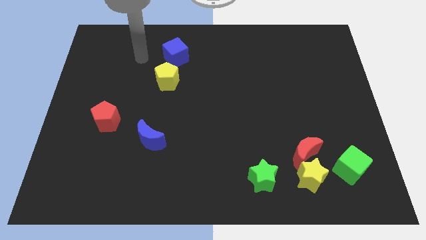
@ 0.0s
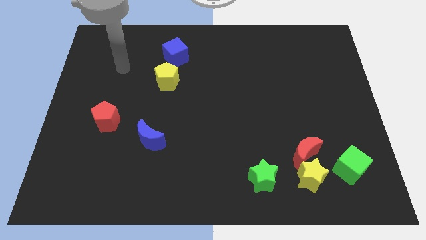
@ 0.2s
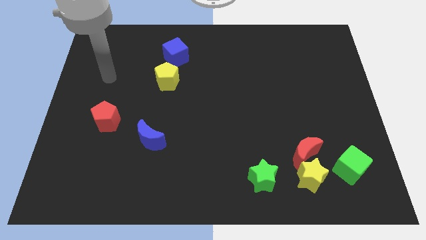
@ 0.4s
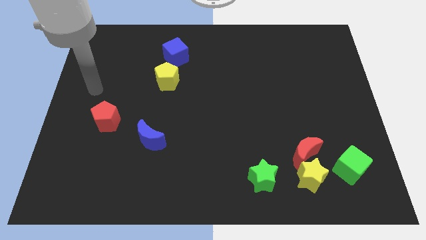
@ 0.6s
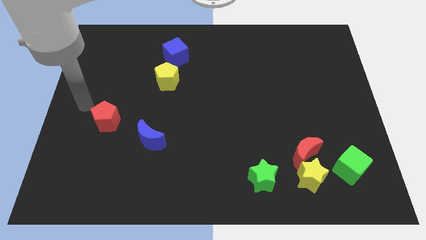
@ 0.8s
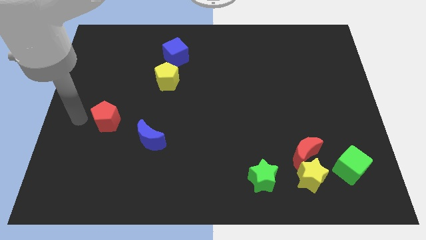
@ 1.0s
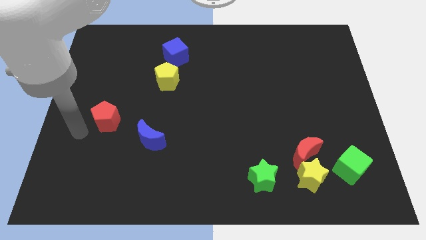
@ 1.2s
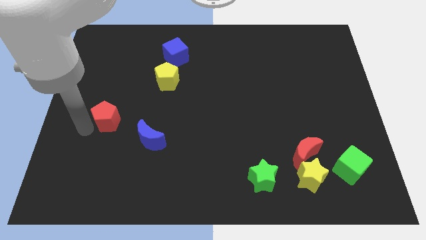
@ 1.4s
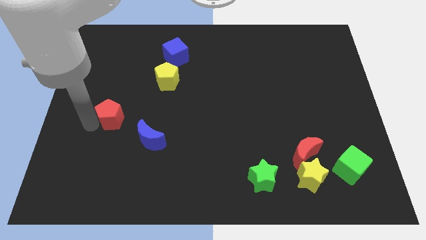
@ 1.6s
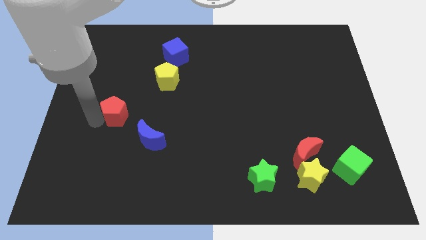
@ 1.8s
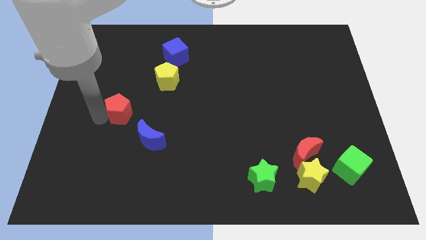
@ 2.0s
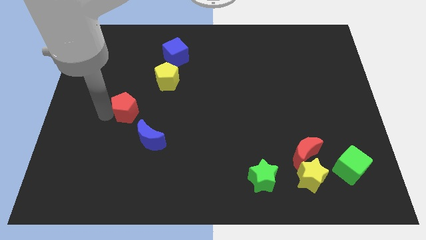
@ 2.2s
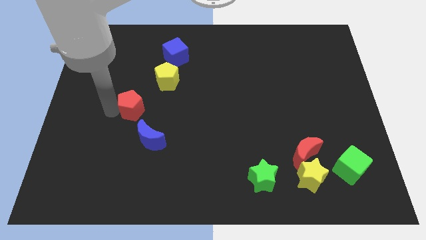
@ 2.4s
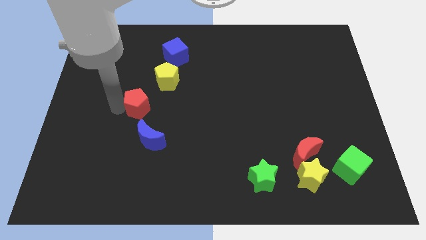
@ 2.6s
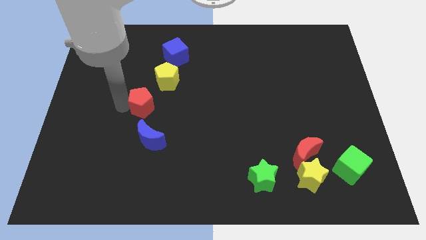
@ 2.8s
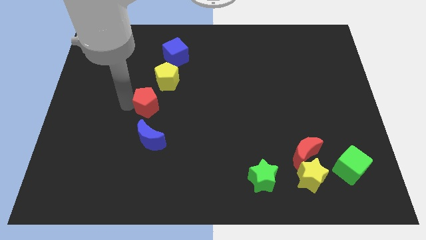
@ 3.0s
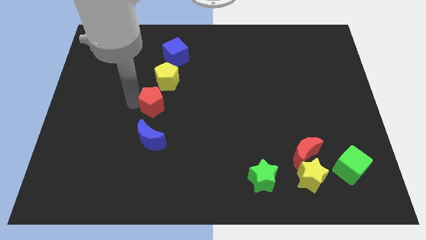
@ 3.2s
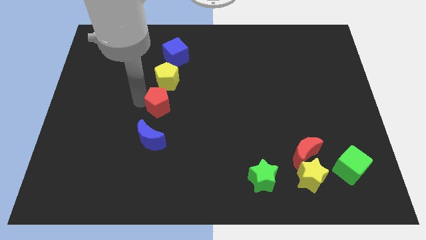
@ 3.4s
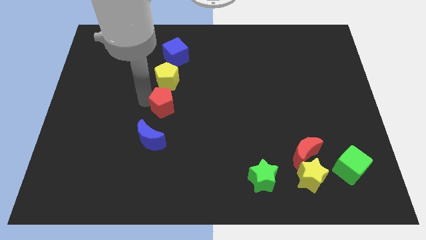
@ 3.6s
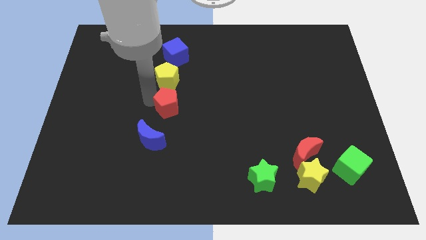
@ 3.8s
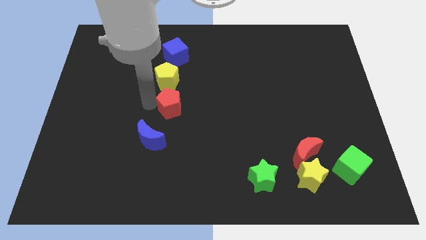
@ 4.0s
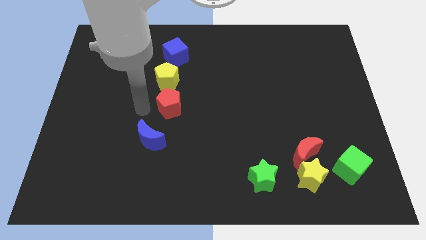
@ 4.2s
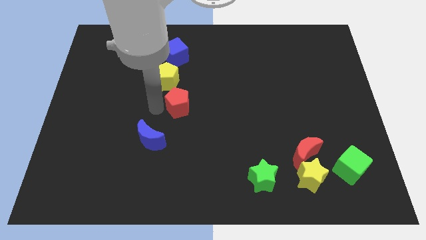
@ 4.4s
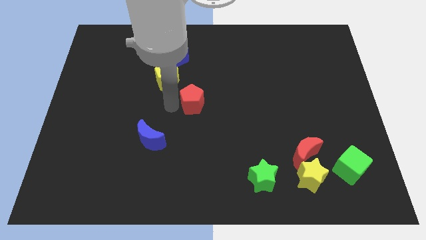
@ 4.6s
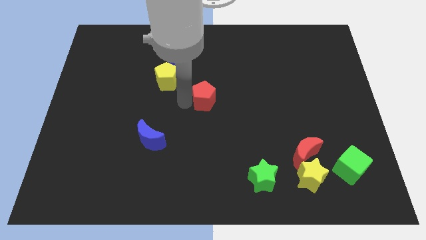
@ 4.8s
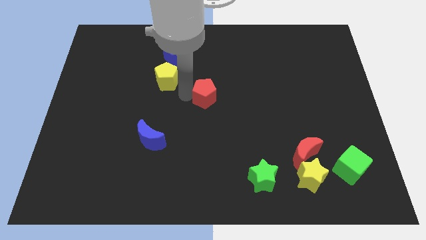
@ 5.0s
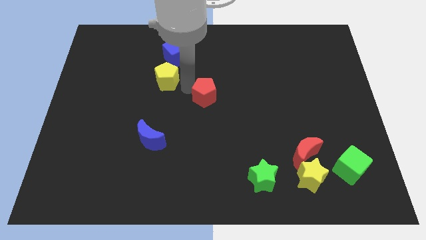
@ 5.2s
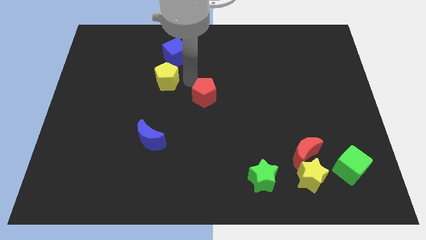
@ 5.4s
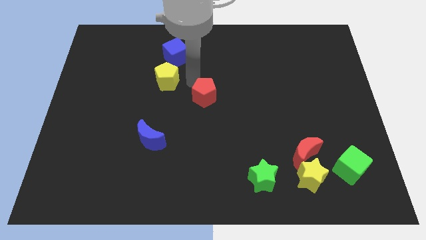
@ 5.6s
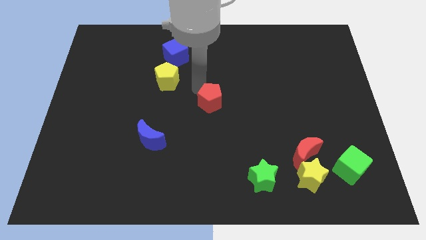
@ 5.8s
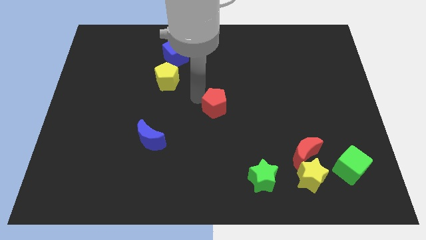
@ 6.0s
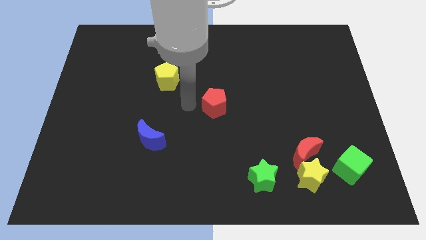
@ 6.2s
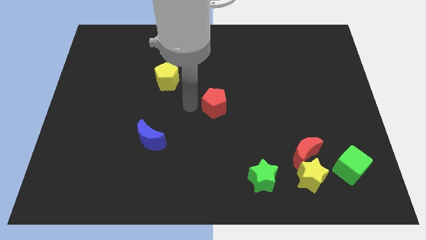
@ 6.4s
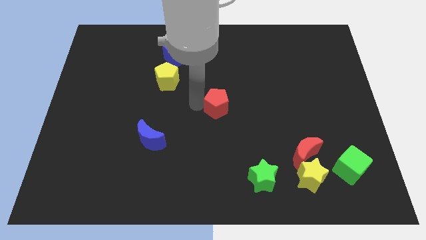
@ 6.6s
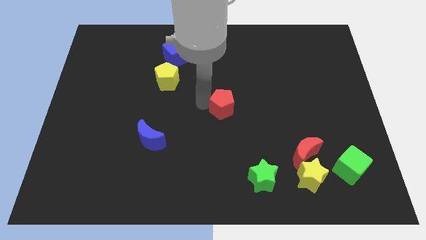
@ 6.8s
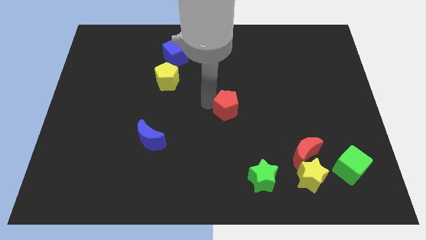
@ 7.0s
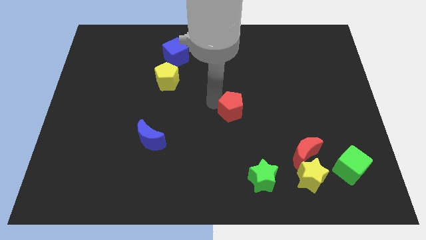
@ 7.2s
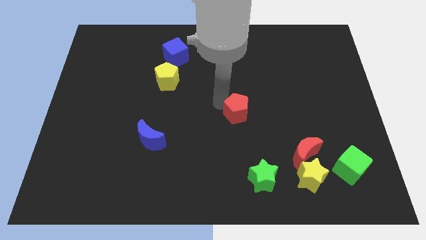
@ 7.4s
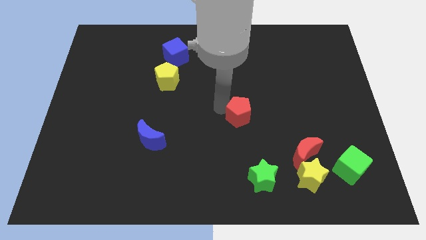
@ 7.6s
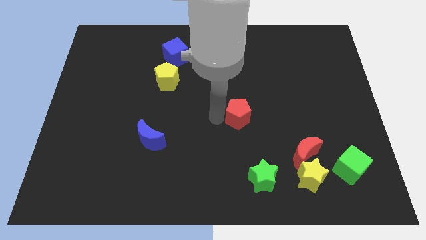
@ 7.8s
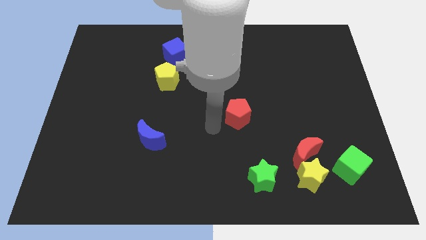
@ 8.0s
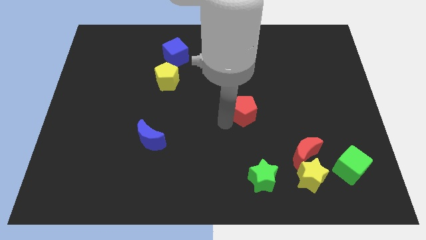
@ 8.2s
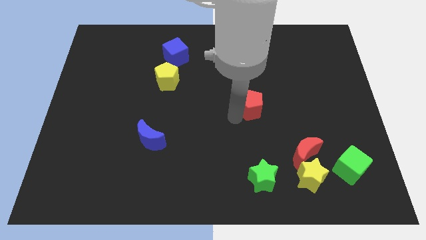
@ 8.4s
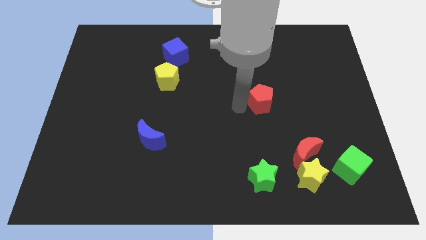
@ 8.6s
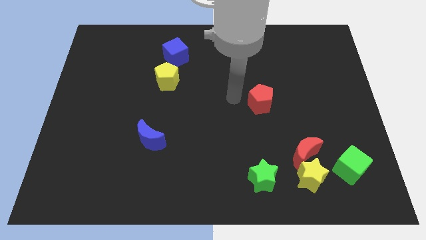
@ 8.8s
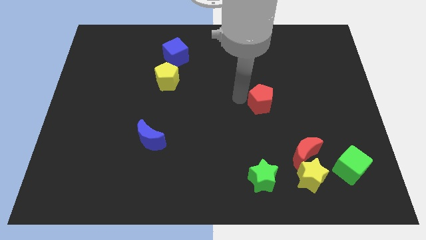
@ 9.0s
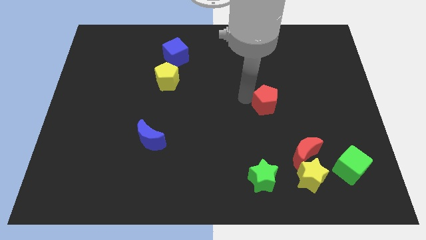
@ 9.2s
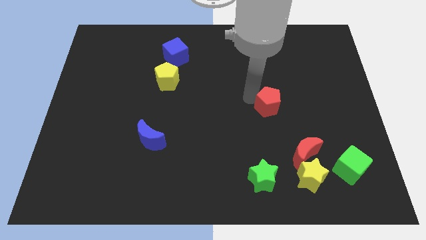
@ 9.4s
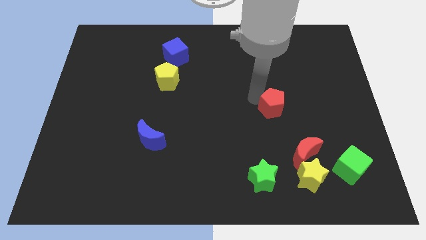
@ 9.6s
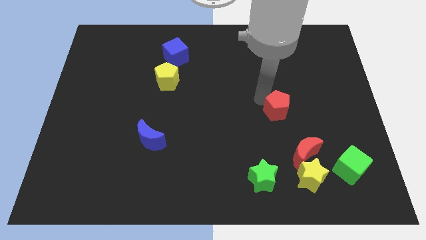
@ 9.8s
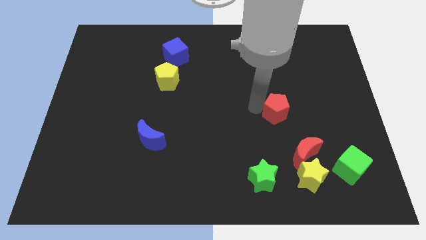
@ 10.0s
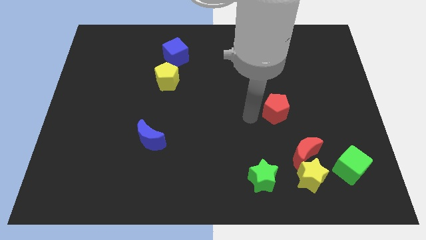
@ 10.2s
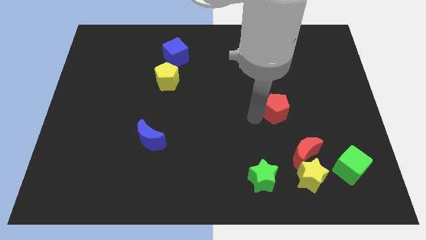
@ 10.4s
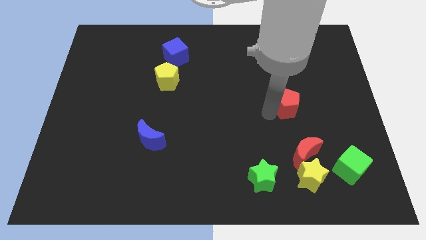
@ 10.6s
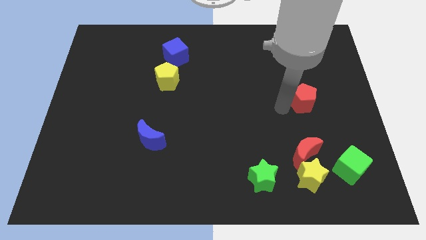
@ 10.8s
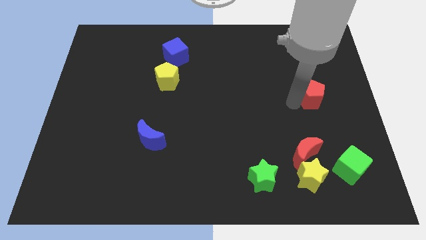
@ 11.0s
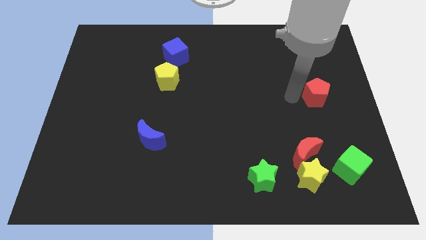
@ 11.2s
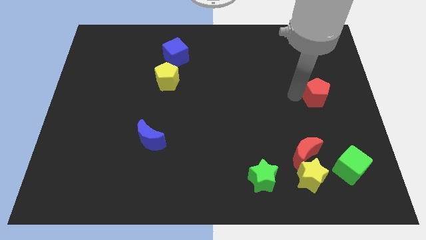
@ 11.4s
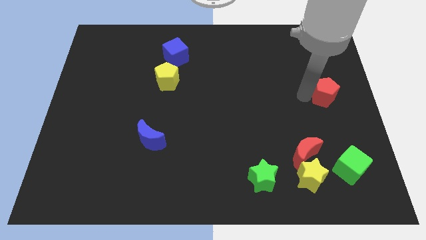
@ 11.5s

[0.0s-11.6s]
put the red pentagon to the right side of the board

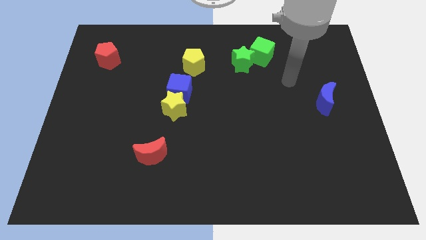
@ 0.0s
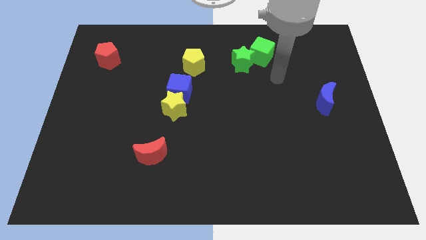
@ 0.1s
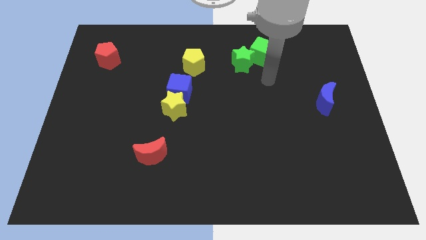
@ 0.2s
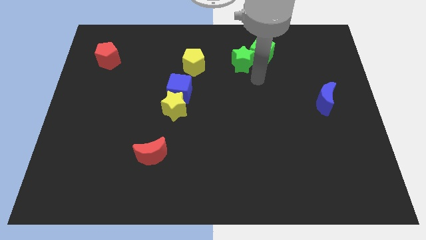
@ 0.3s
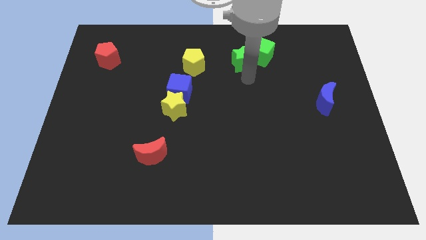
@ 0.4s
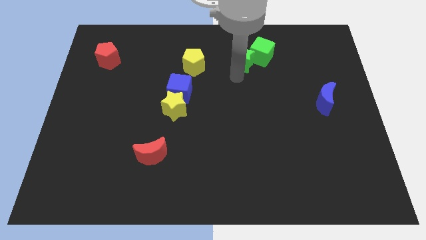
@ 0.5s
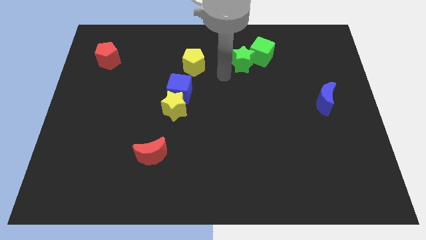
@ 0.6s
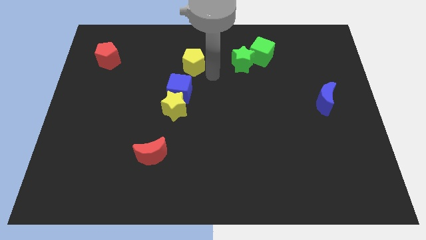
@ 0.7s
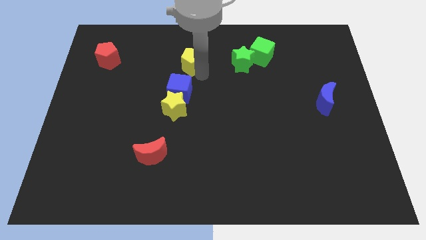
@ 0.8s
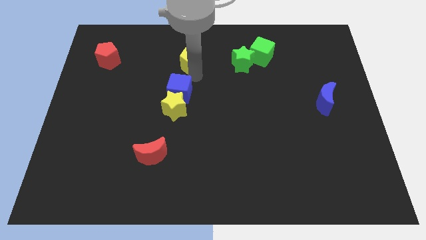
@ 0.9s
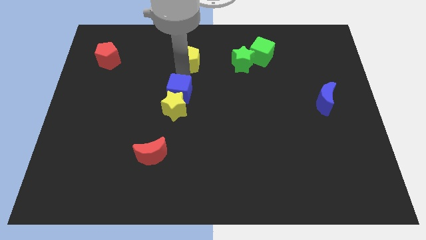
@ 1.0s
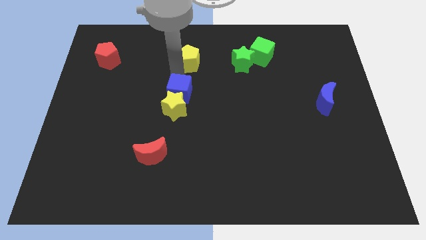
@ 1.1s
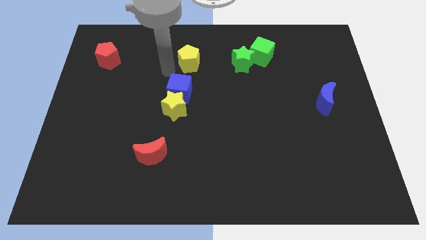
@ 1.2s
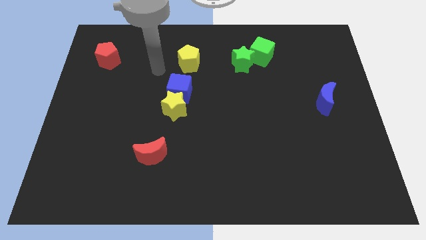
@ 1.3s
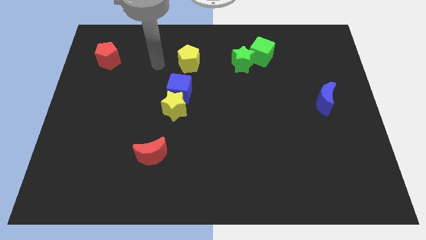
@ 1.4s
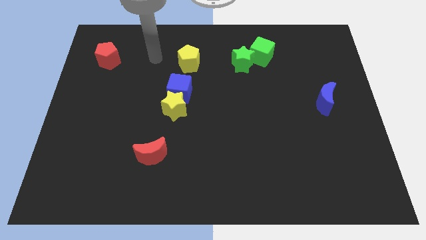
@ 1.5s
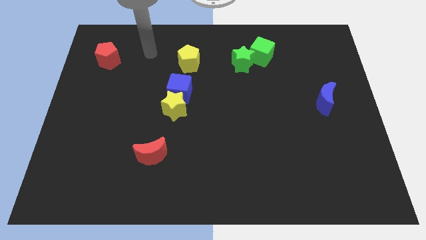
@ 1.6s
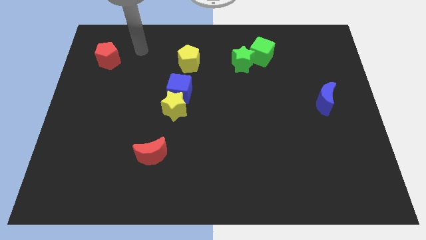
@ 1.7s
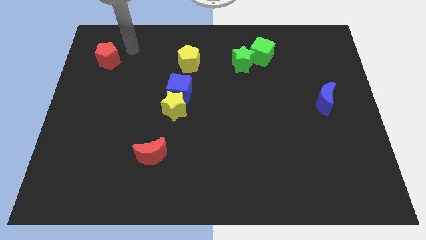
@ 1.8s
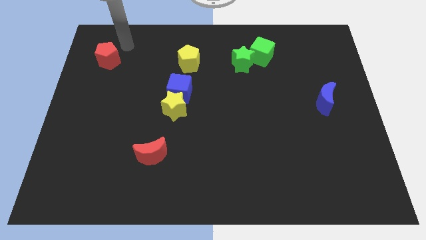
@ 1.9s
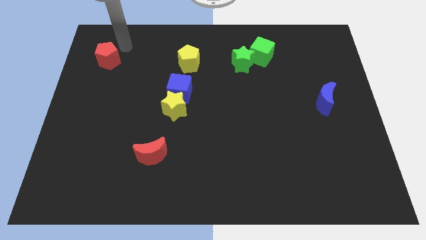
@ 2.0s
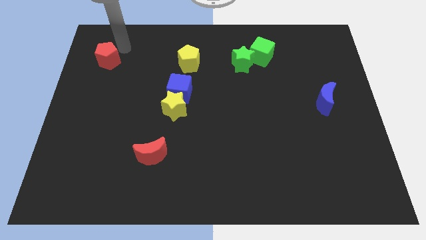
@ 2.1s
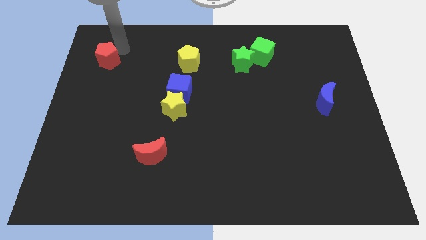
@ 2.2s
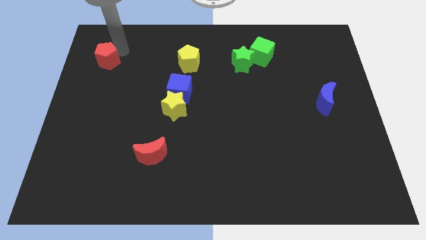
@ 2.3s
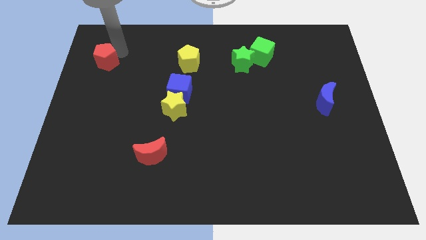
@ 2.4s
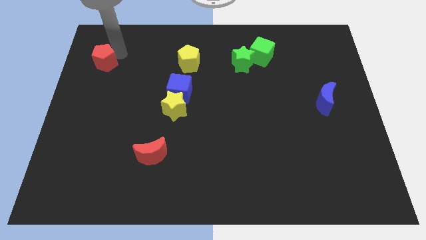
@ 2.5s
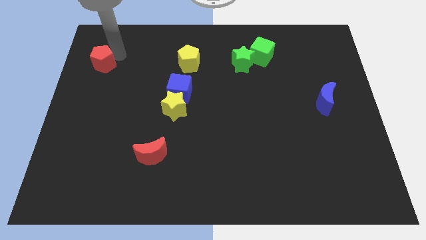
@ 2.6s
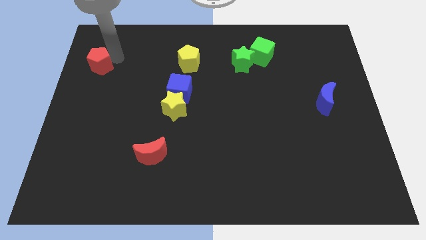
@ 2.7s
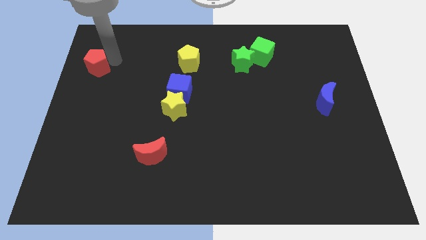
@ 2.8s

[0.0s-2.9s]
slide the red pentagon to the left side
